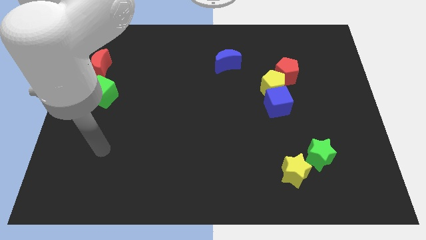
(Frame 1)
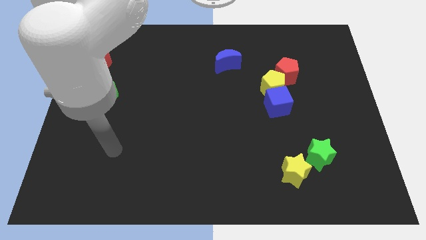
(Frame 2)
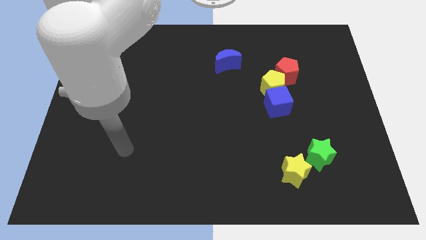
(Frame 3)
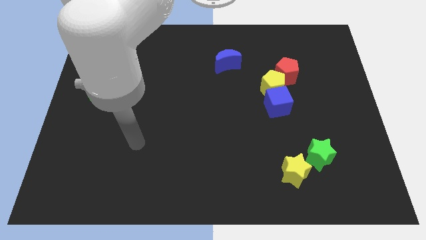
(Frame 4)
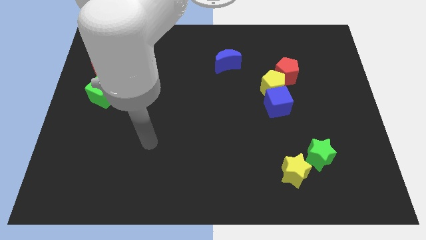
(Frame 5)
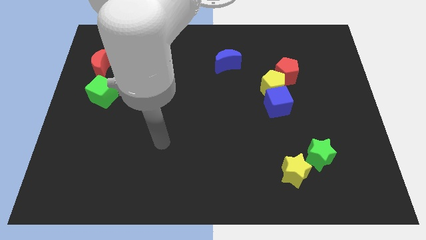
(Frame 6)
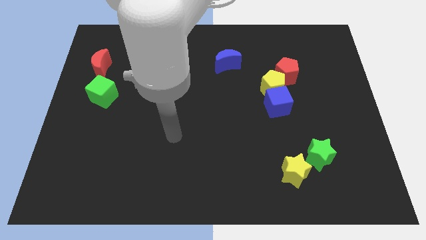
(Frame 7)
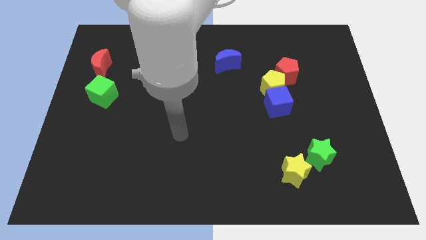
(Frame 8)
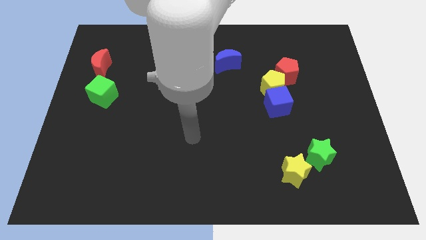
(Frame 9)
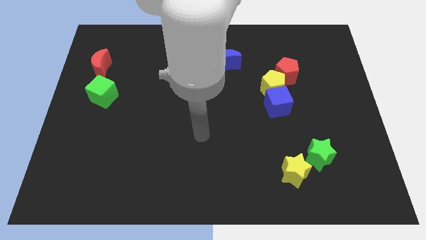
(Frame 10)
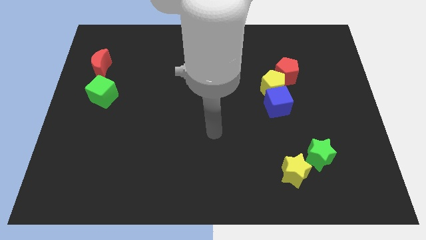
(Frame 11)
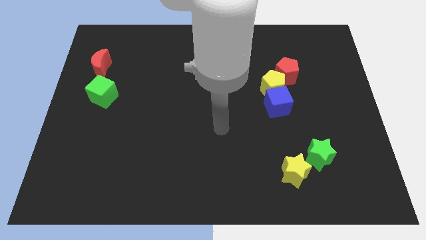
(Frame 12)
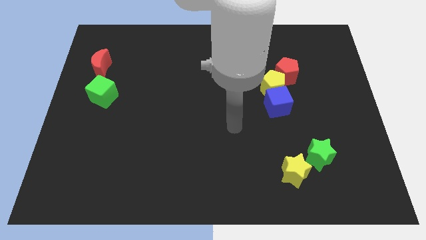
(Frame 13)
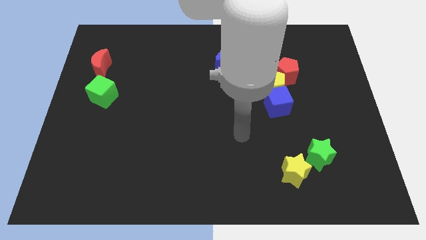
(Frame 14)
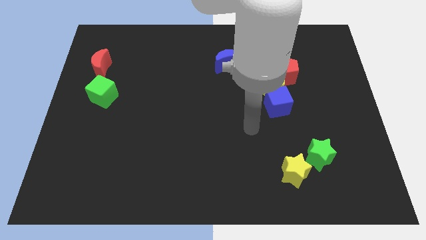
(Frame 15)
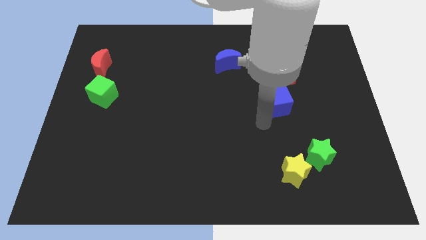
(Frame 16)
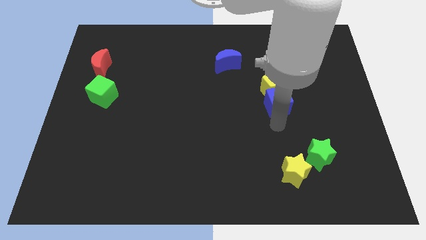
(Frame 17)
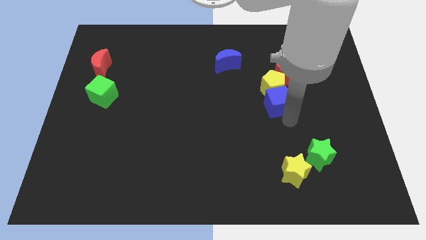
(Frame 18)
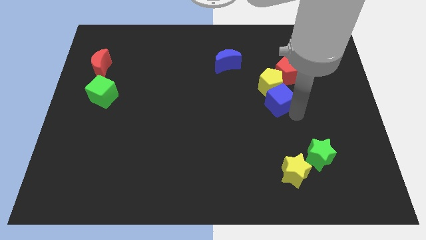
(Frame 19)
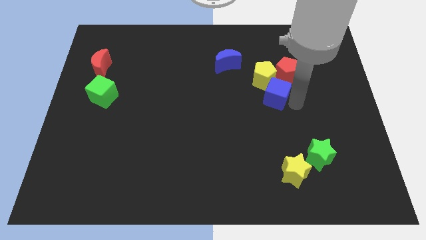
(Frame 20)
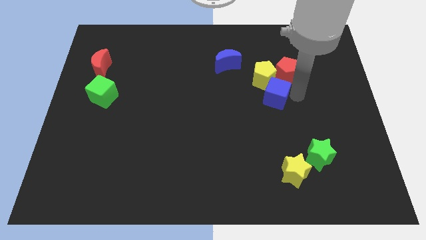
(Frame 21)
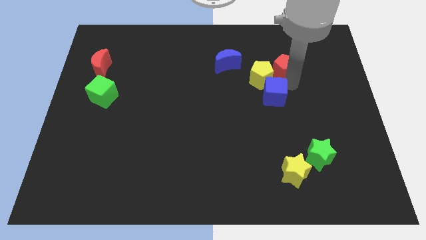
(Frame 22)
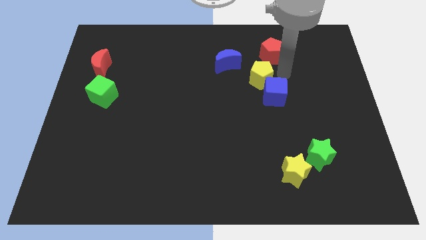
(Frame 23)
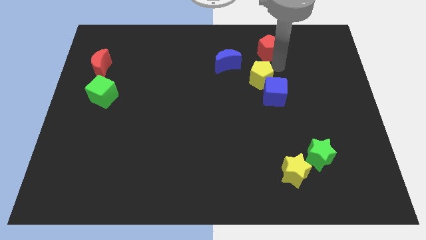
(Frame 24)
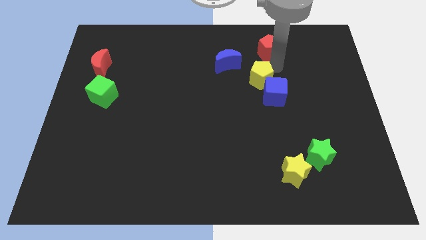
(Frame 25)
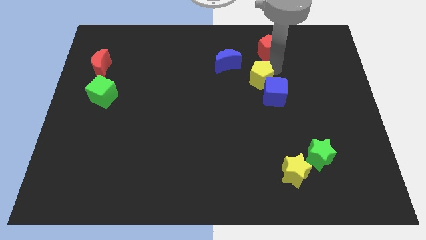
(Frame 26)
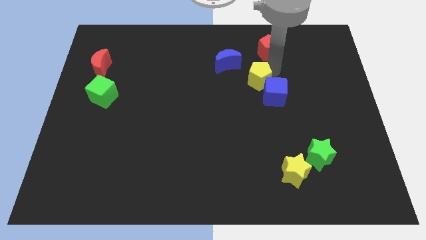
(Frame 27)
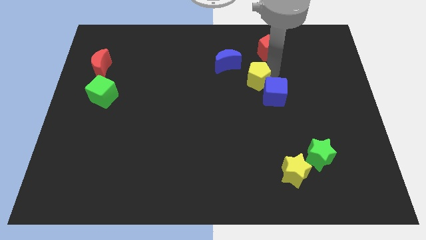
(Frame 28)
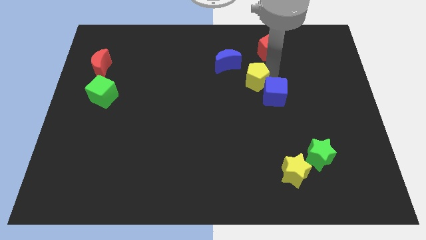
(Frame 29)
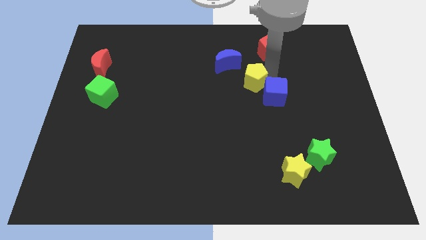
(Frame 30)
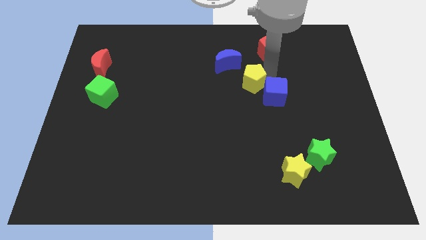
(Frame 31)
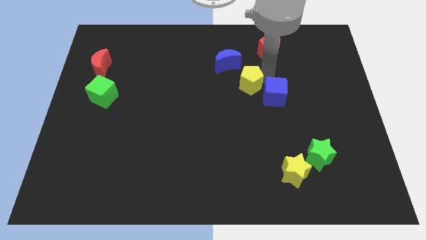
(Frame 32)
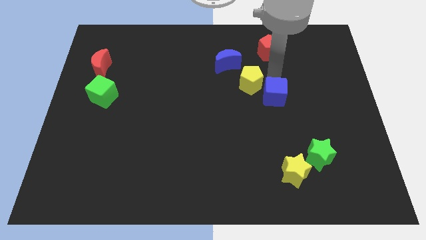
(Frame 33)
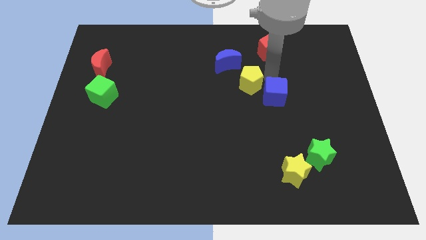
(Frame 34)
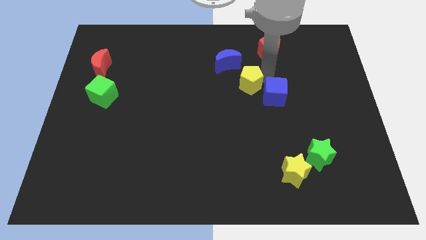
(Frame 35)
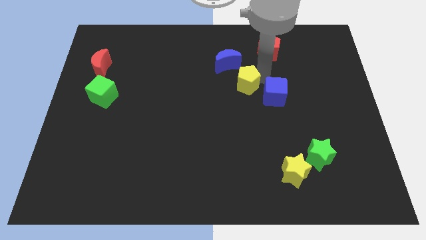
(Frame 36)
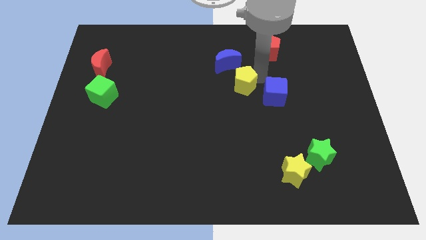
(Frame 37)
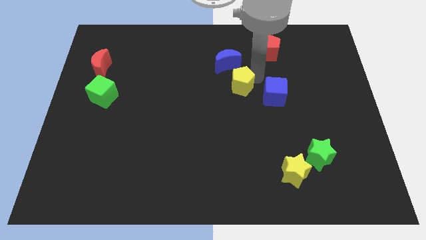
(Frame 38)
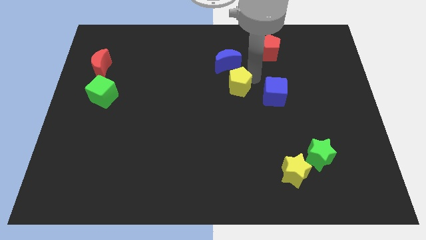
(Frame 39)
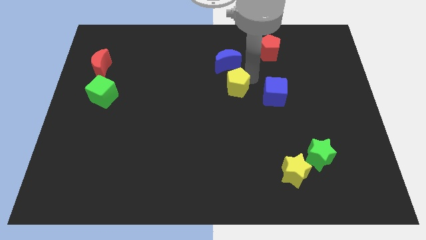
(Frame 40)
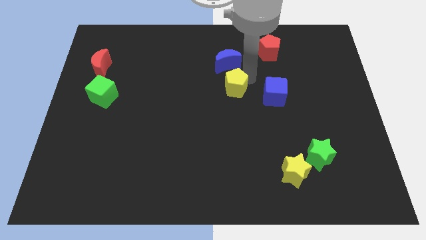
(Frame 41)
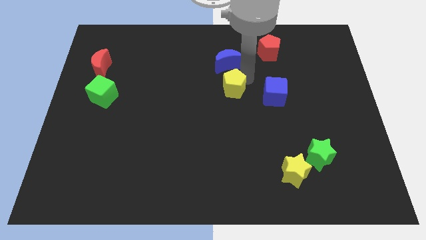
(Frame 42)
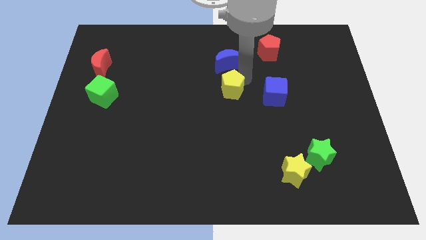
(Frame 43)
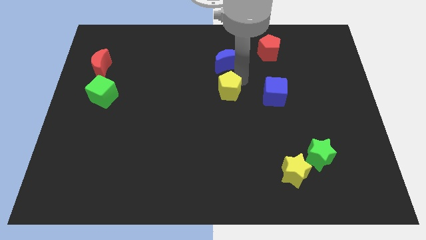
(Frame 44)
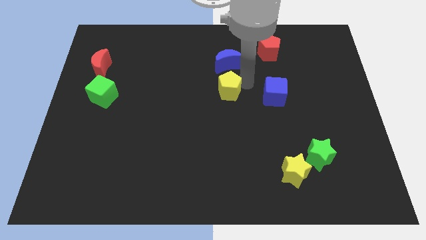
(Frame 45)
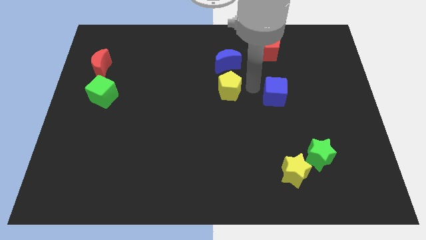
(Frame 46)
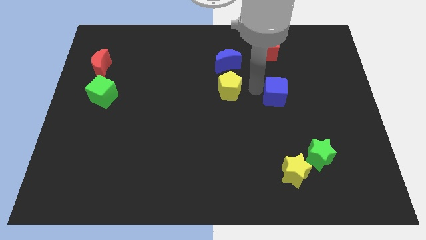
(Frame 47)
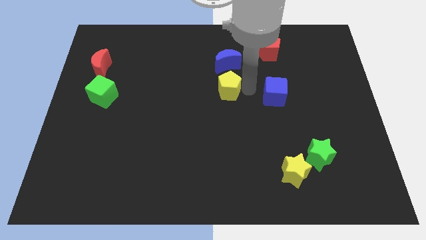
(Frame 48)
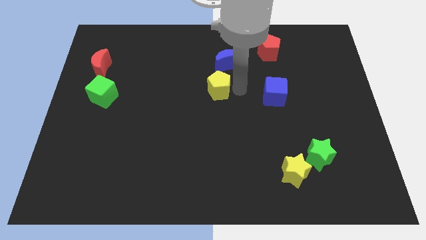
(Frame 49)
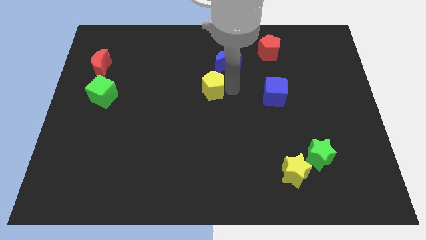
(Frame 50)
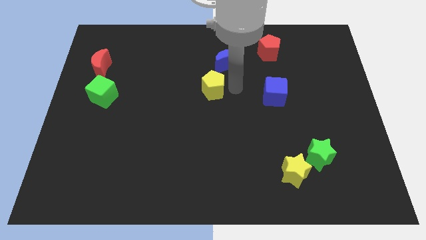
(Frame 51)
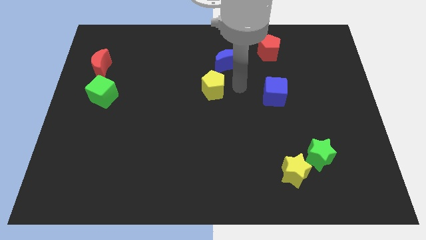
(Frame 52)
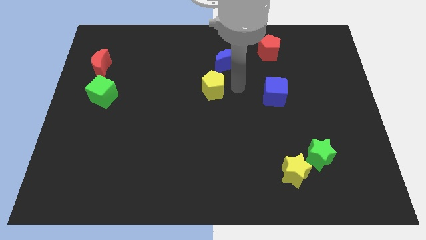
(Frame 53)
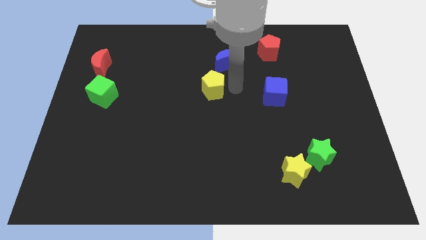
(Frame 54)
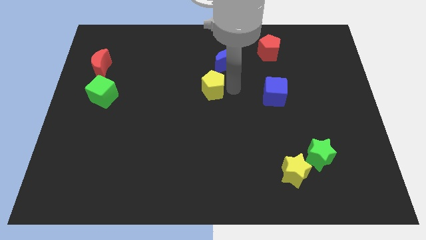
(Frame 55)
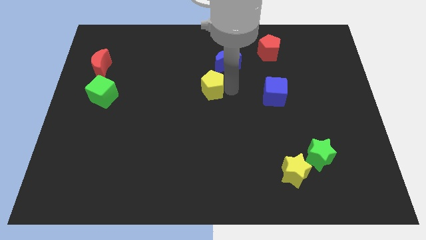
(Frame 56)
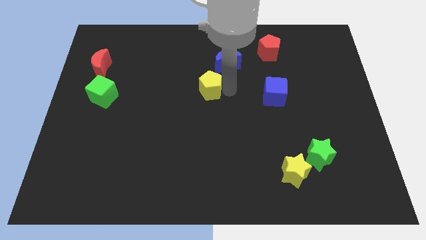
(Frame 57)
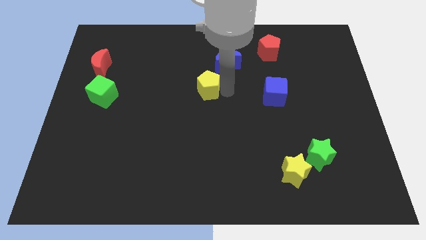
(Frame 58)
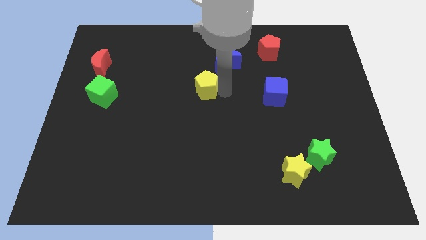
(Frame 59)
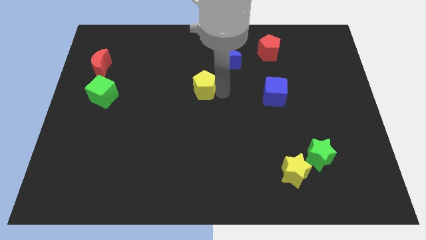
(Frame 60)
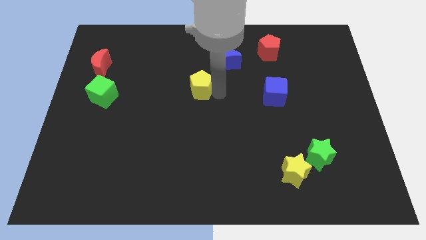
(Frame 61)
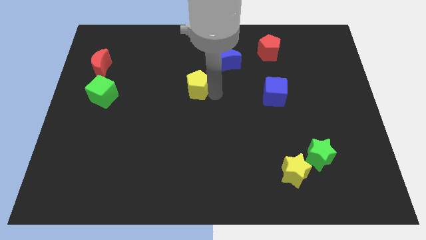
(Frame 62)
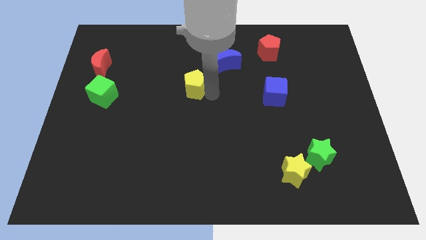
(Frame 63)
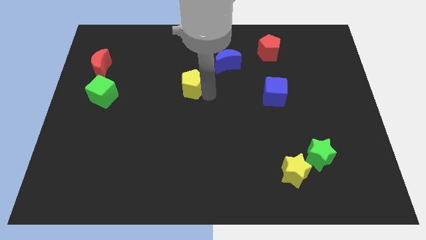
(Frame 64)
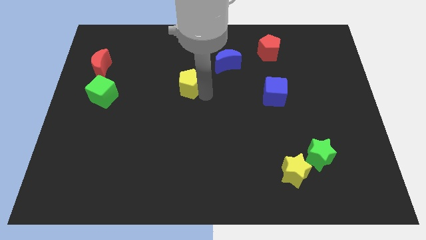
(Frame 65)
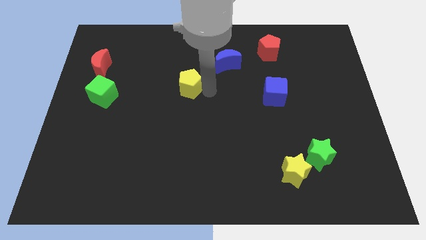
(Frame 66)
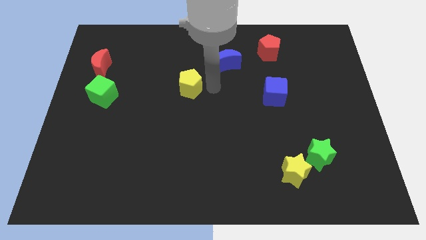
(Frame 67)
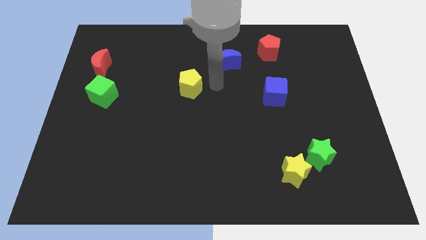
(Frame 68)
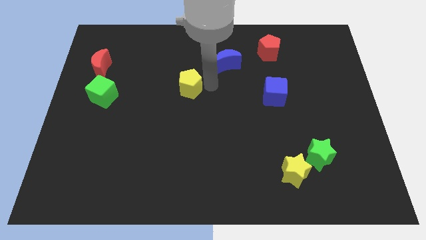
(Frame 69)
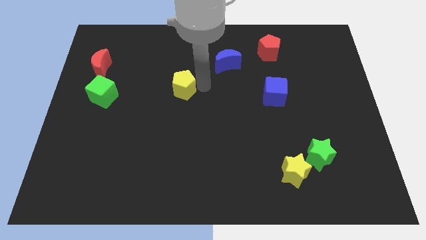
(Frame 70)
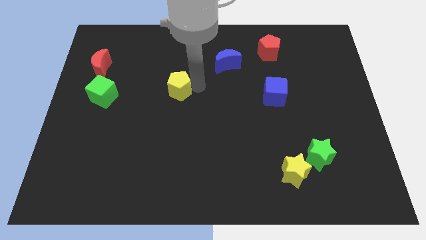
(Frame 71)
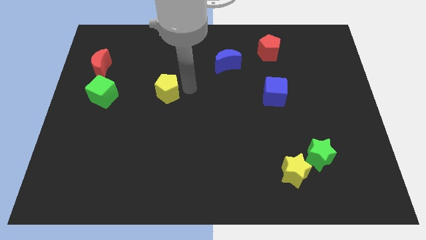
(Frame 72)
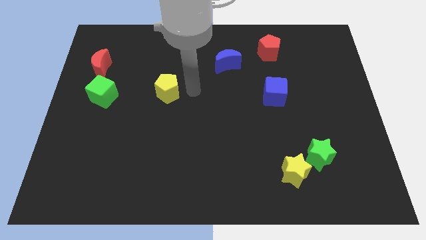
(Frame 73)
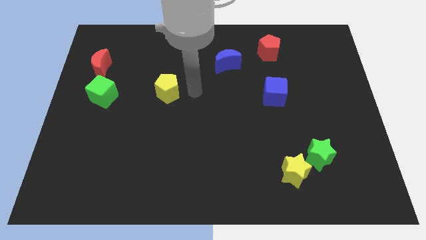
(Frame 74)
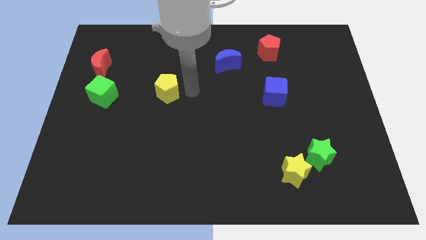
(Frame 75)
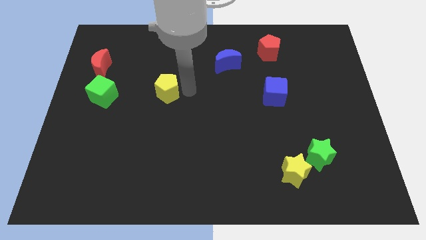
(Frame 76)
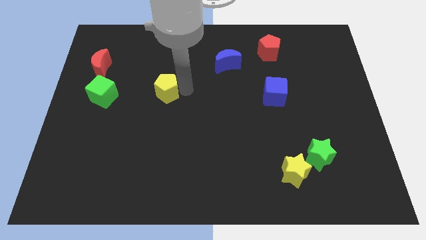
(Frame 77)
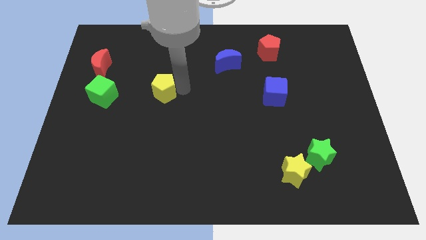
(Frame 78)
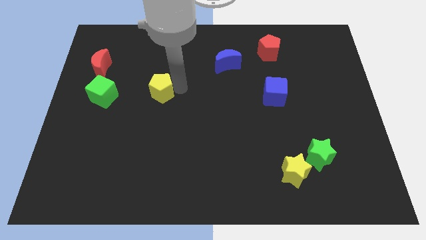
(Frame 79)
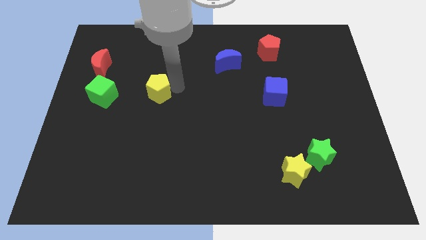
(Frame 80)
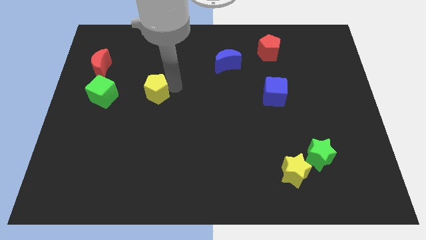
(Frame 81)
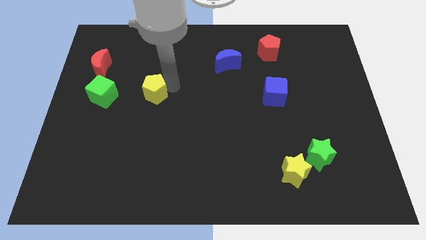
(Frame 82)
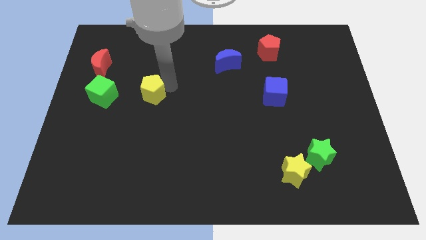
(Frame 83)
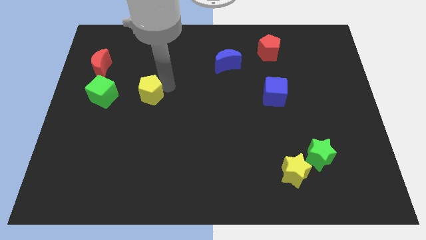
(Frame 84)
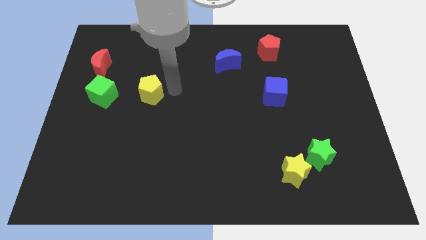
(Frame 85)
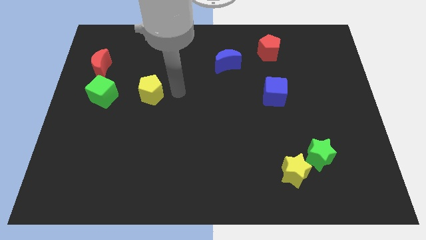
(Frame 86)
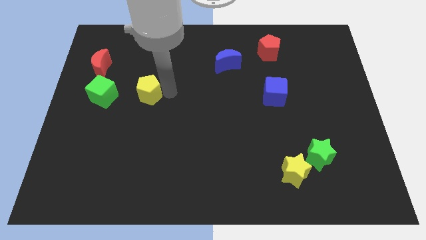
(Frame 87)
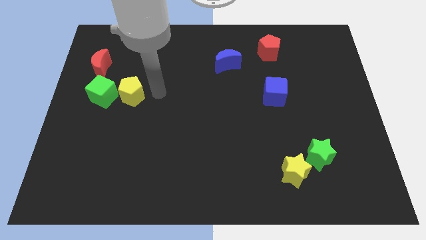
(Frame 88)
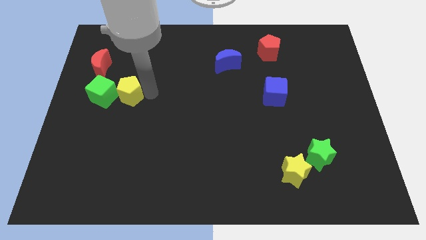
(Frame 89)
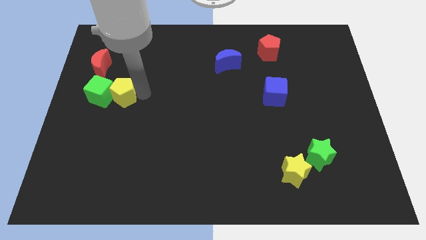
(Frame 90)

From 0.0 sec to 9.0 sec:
slide the yellow pentagon towards the green cube
